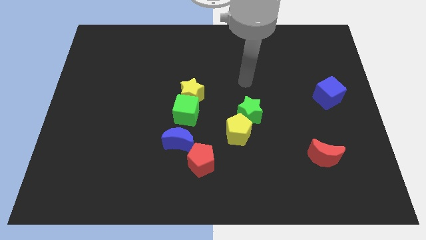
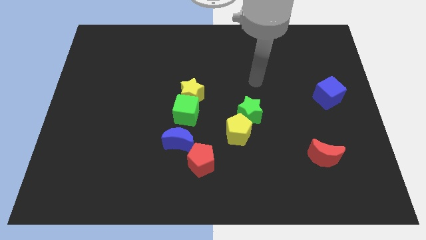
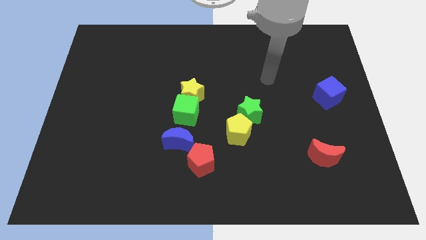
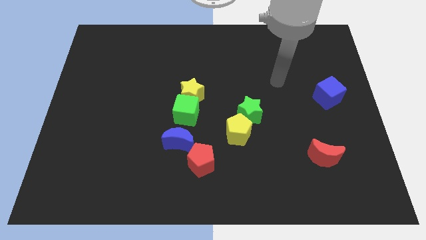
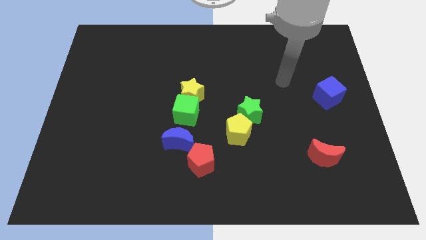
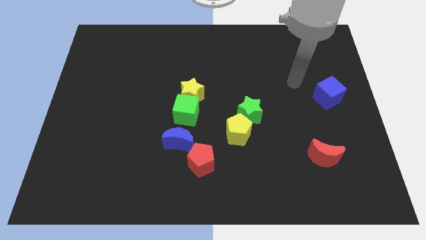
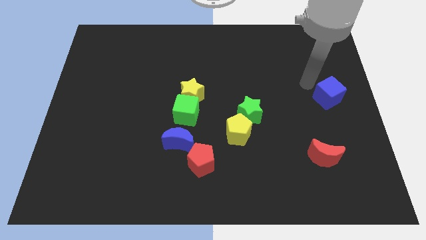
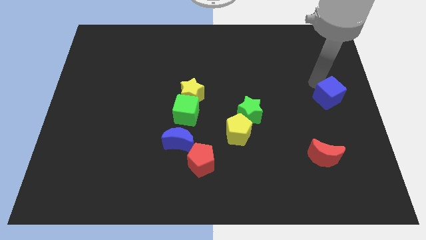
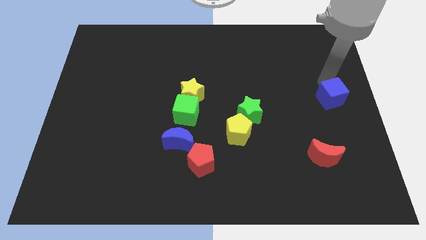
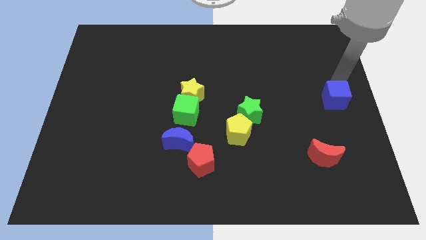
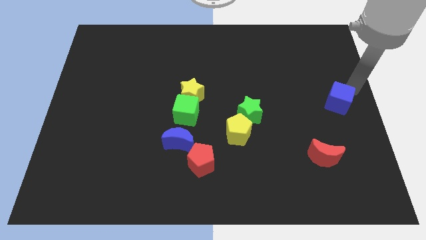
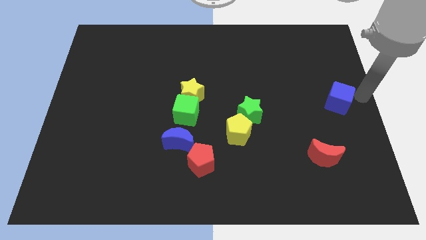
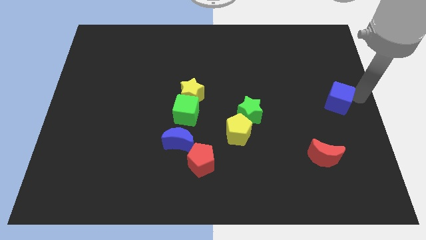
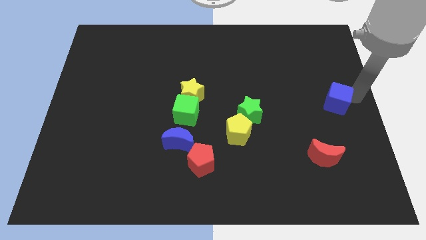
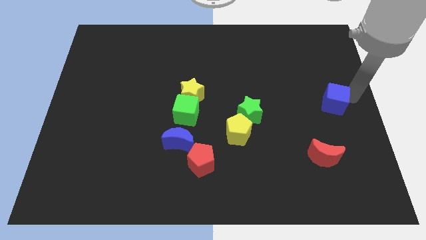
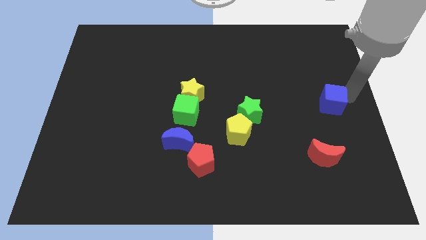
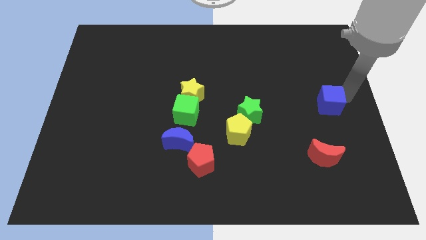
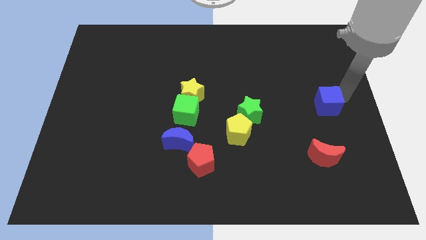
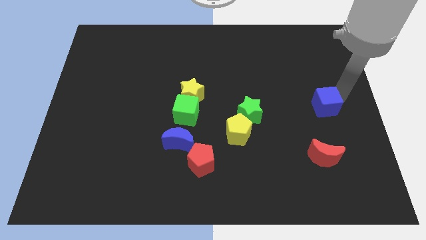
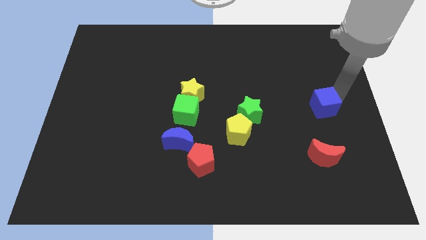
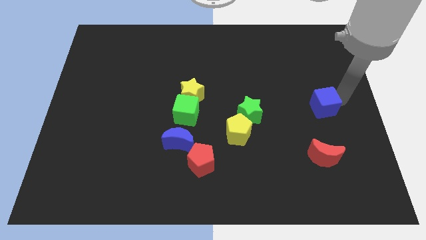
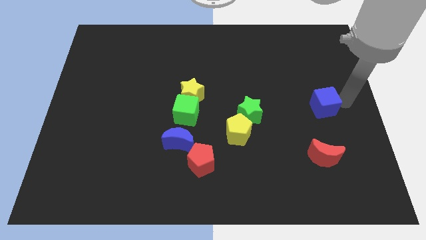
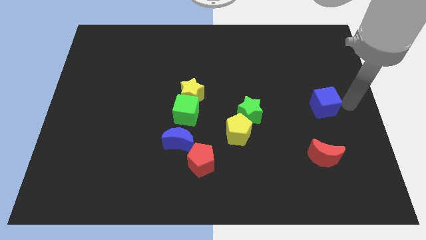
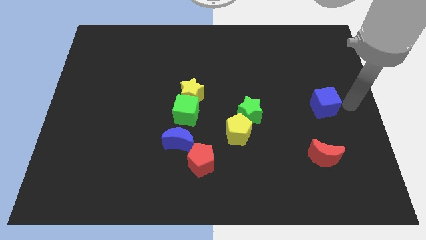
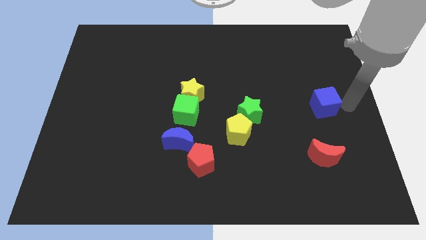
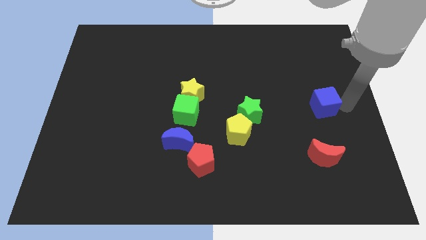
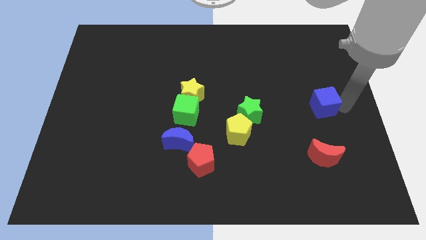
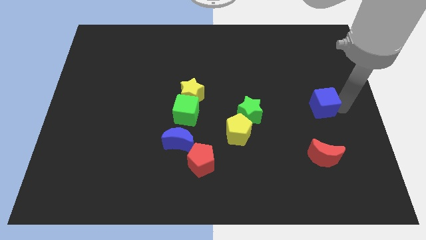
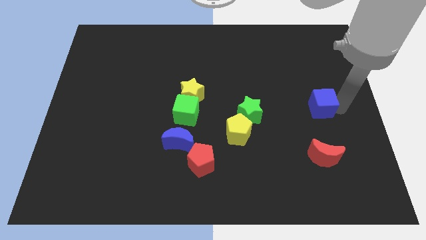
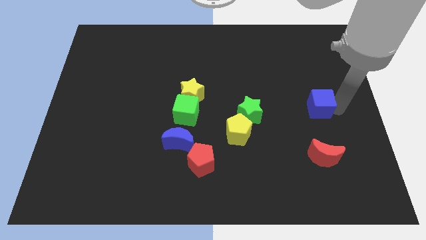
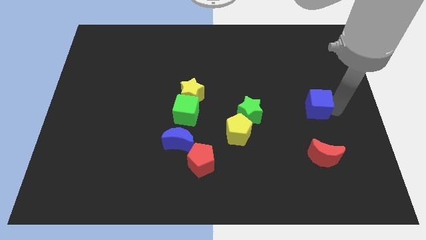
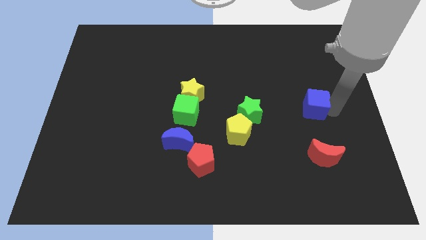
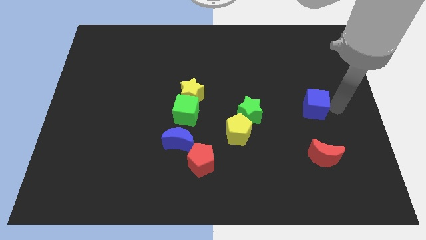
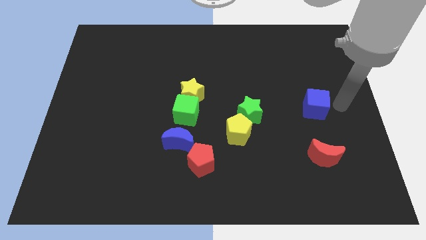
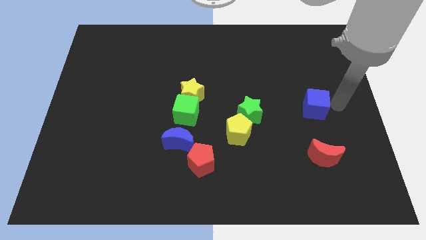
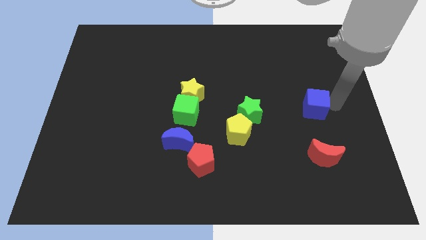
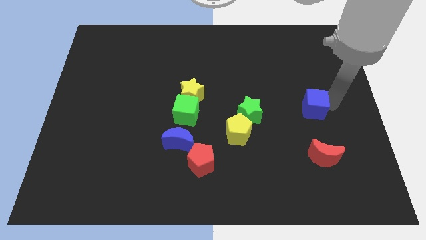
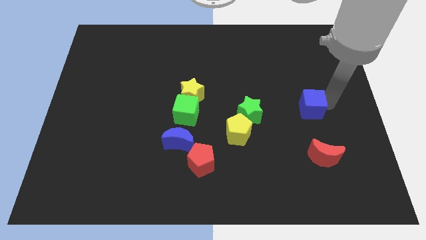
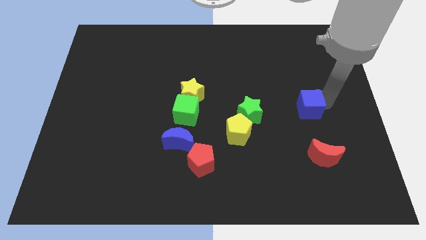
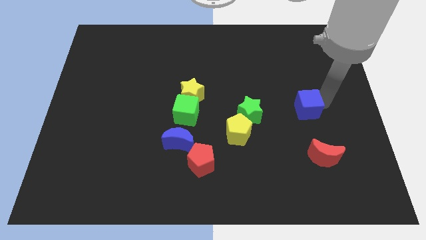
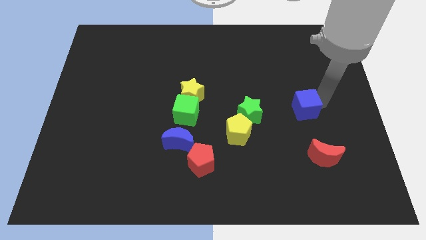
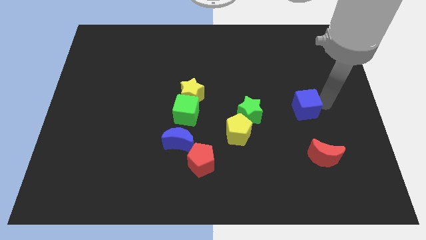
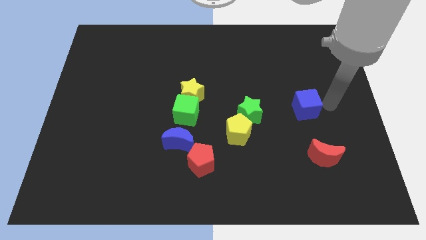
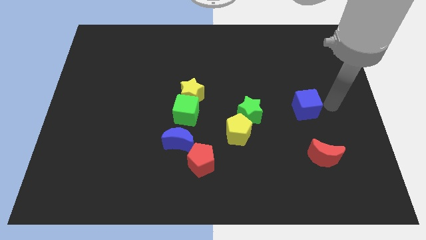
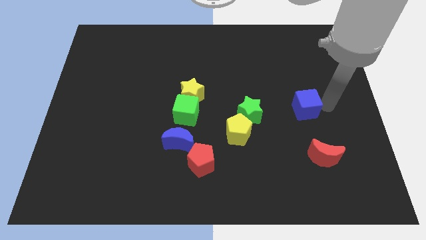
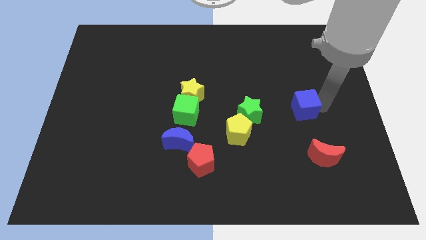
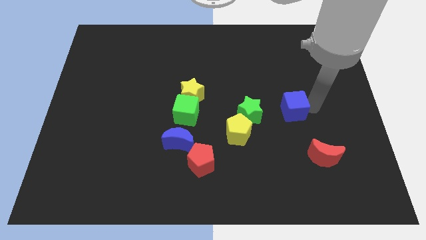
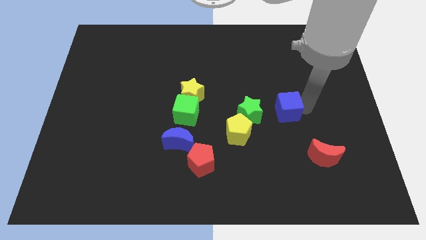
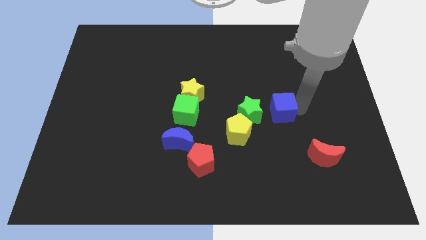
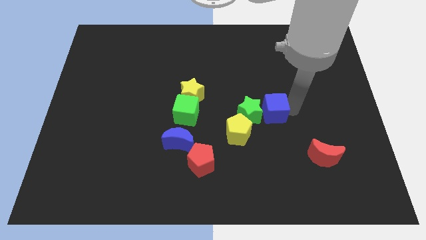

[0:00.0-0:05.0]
push the blue cube next to the green star

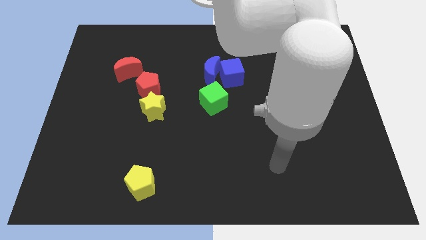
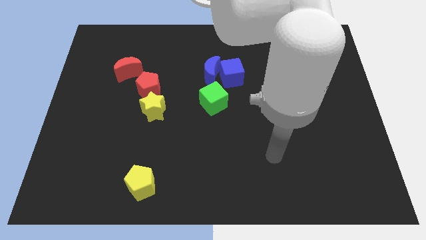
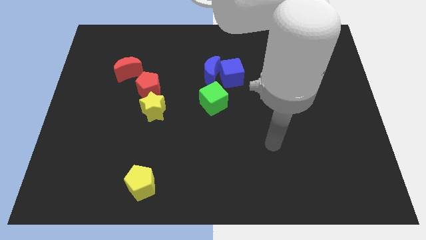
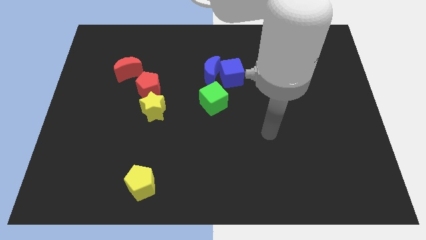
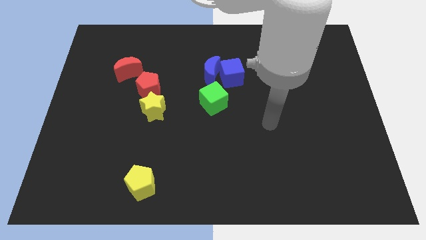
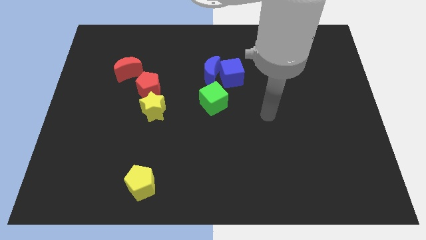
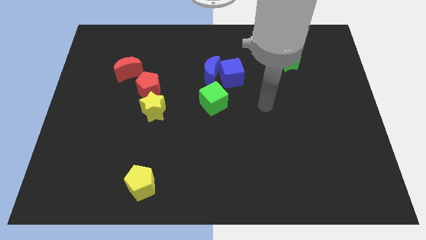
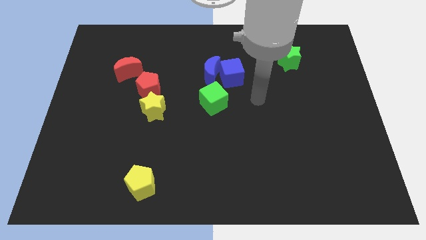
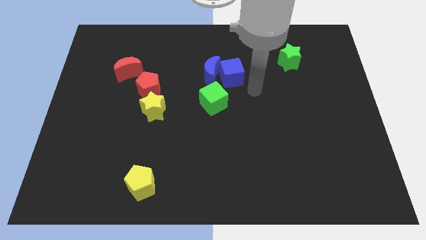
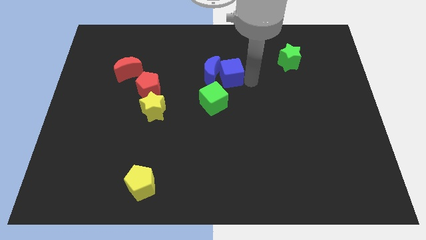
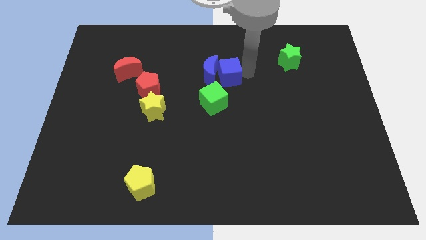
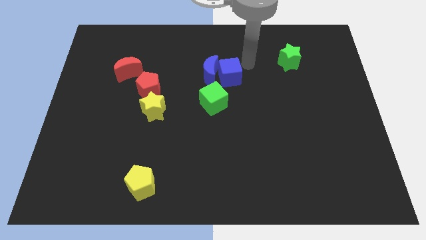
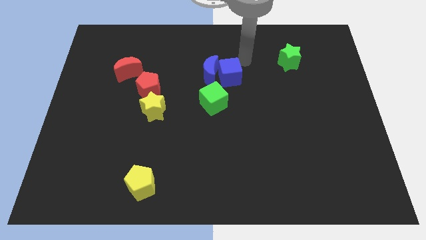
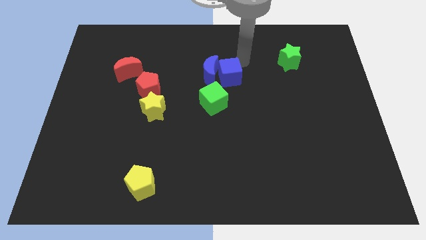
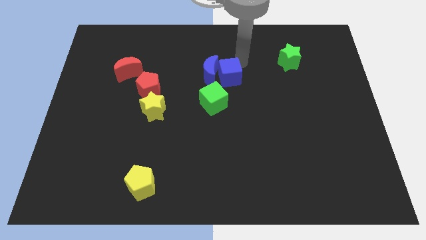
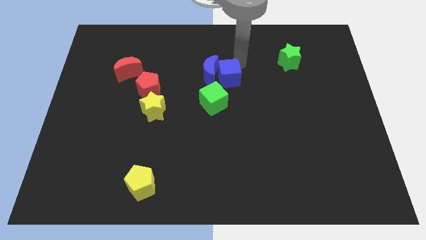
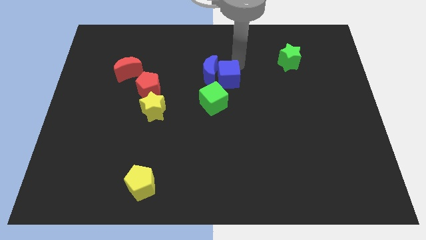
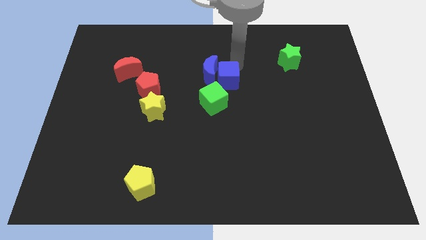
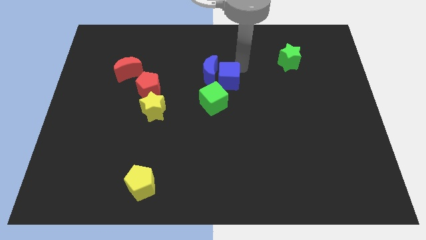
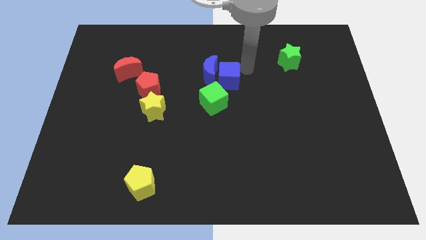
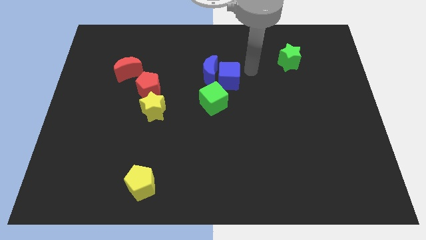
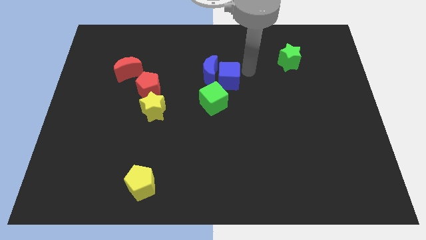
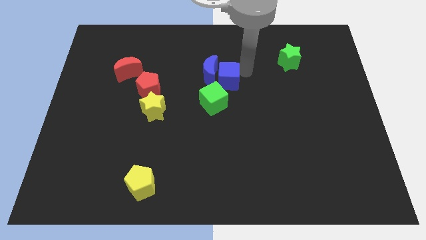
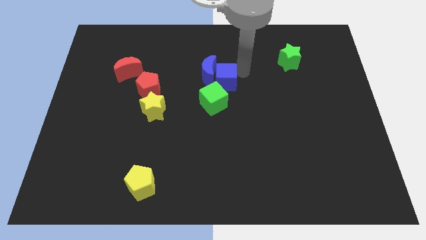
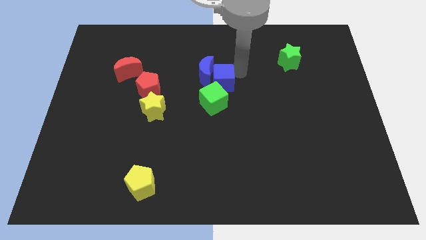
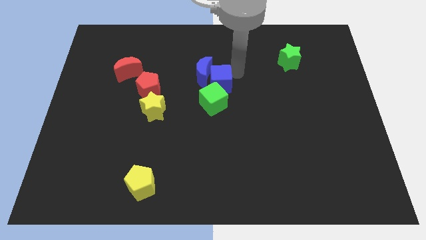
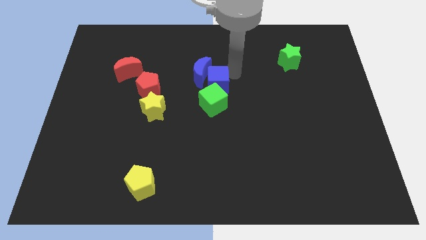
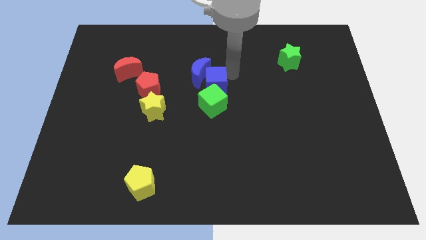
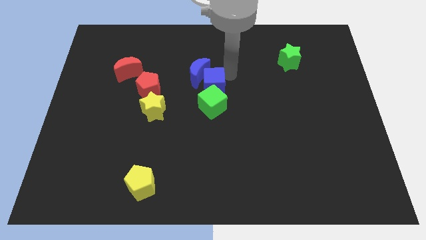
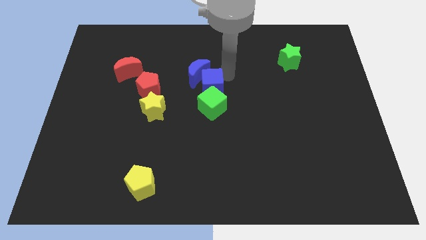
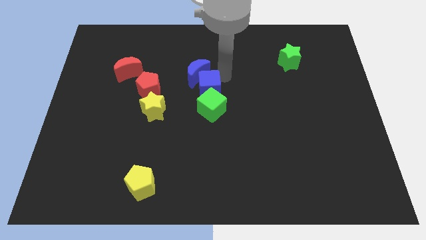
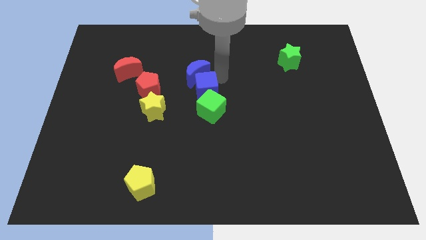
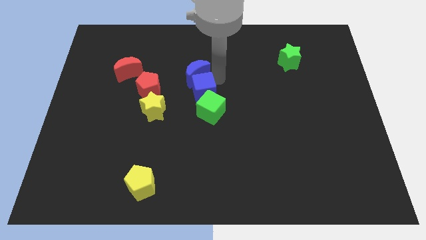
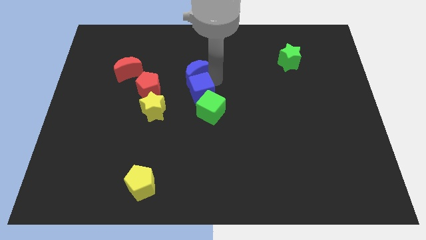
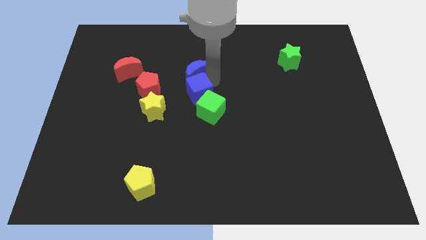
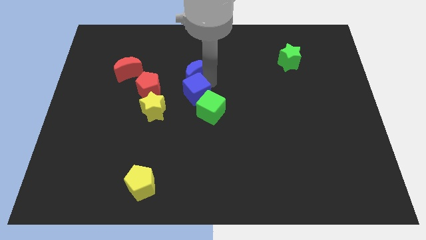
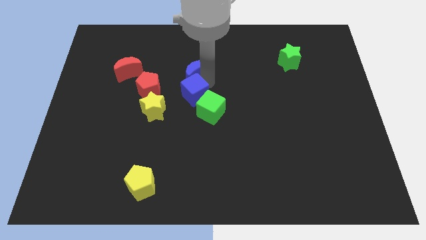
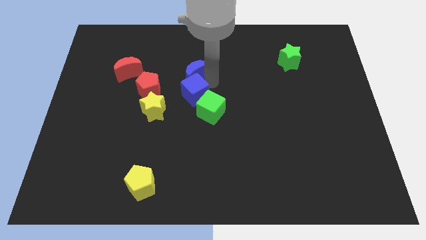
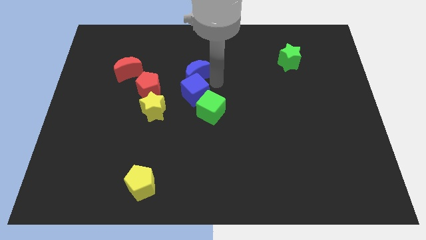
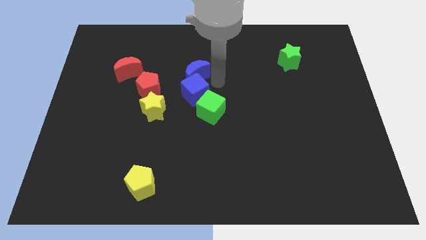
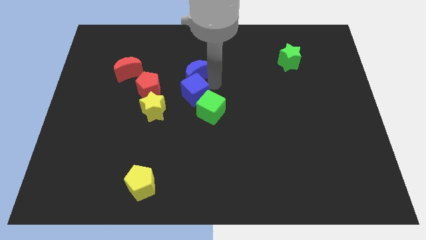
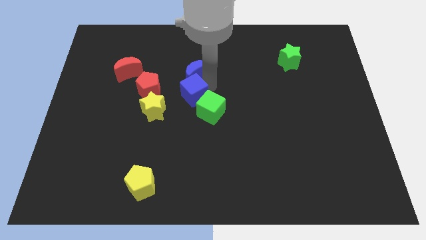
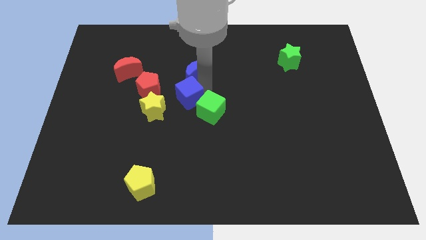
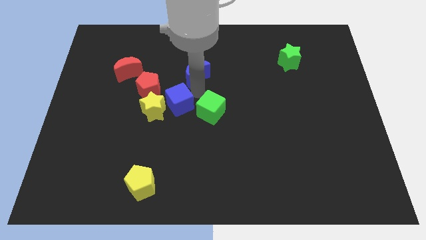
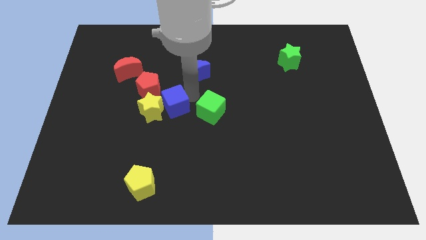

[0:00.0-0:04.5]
move the blue cube close to the yellow star
